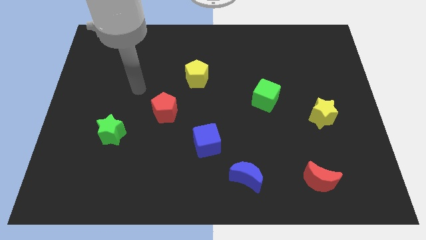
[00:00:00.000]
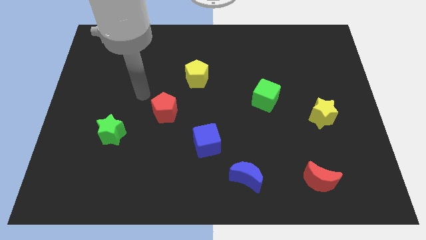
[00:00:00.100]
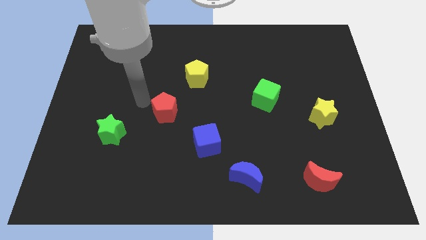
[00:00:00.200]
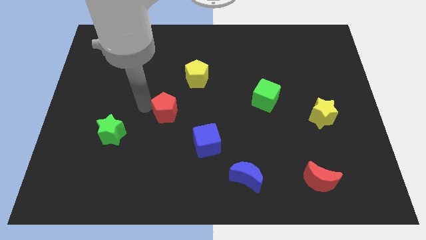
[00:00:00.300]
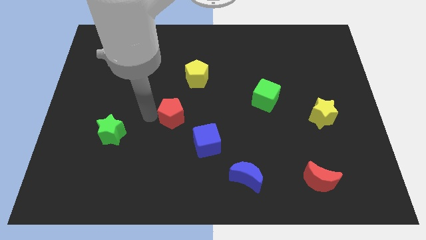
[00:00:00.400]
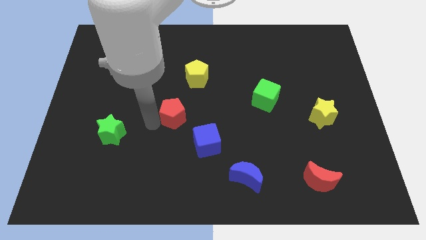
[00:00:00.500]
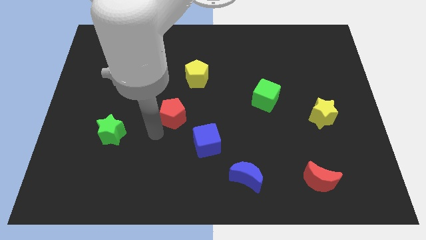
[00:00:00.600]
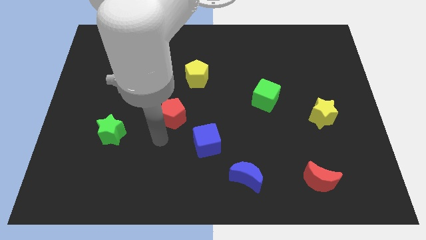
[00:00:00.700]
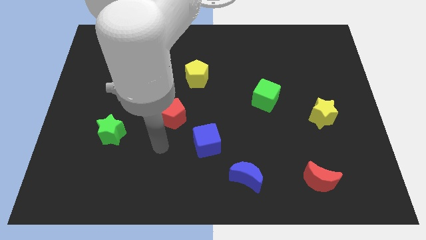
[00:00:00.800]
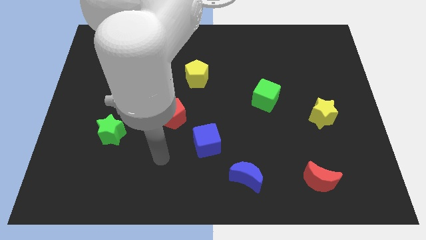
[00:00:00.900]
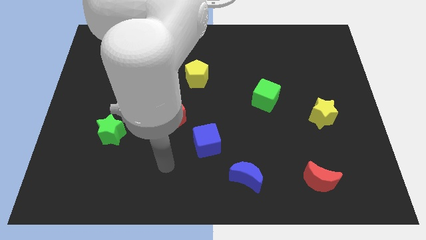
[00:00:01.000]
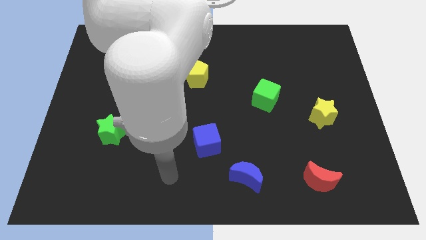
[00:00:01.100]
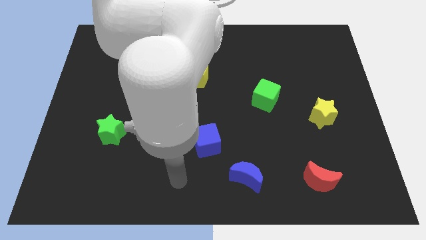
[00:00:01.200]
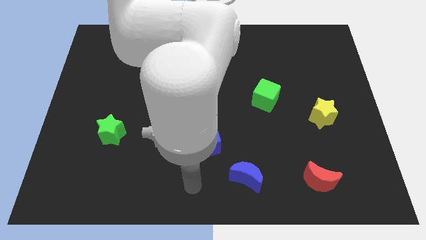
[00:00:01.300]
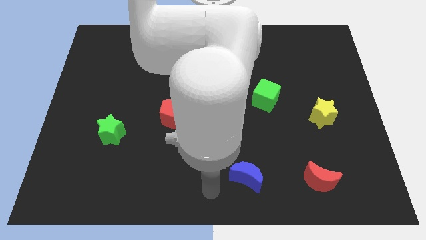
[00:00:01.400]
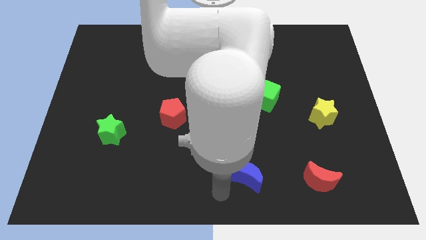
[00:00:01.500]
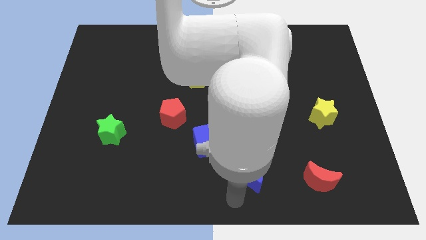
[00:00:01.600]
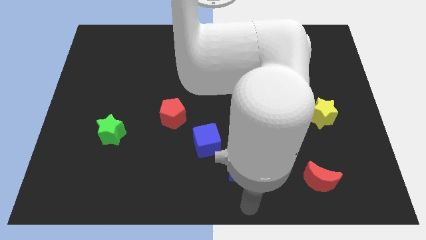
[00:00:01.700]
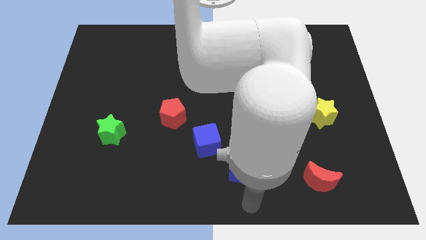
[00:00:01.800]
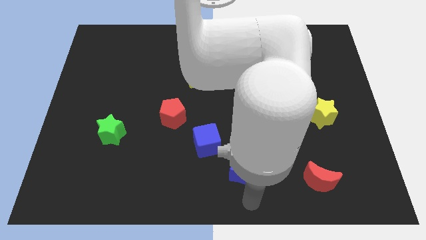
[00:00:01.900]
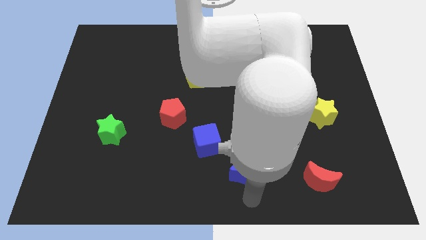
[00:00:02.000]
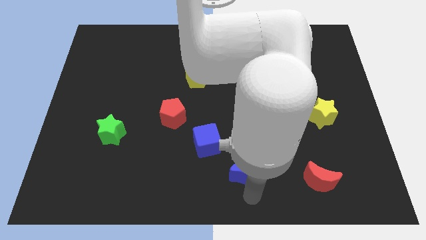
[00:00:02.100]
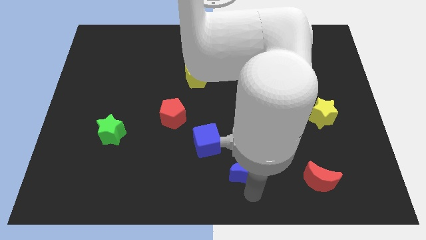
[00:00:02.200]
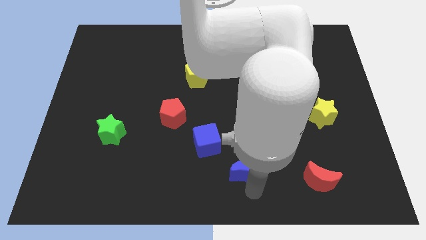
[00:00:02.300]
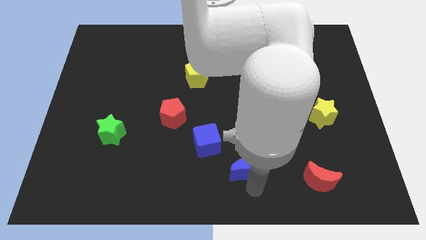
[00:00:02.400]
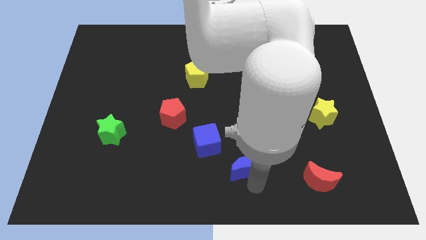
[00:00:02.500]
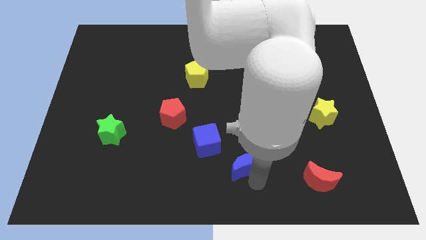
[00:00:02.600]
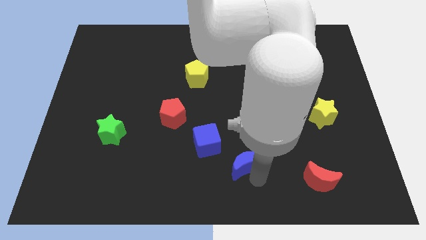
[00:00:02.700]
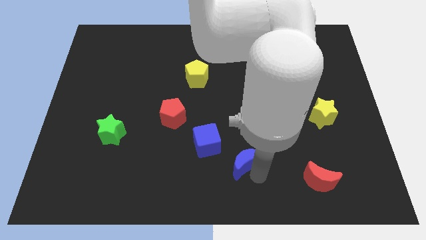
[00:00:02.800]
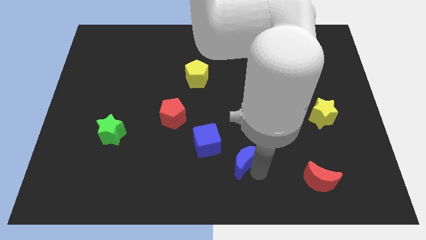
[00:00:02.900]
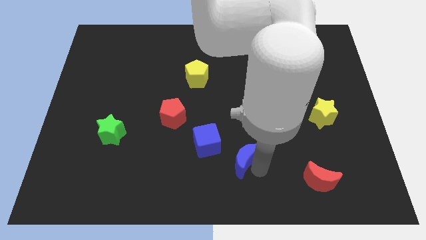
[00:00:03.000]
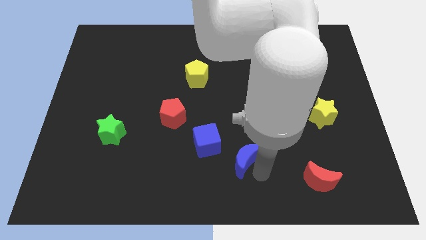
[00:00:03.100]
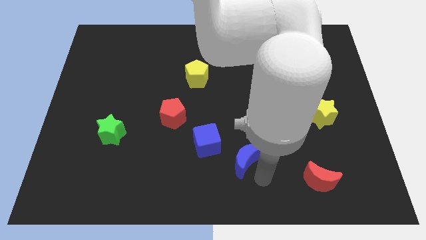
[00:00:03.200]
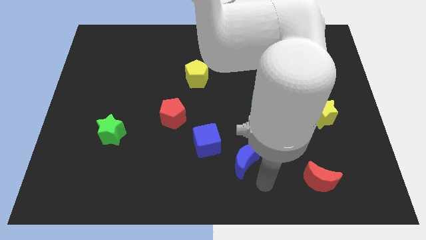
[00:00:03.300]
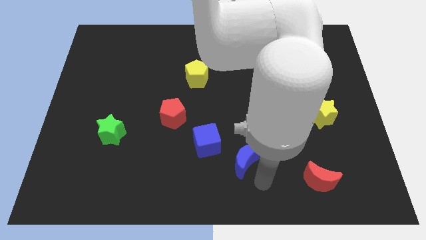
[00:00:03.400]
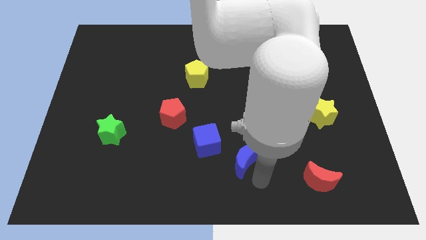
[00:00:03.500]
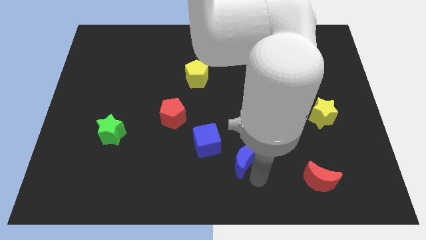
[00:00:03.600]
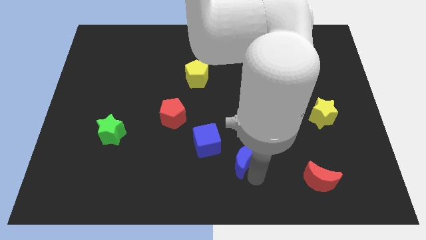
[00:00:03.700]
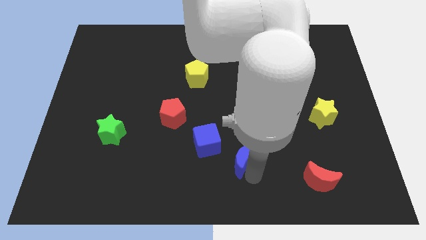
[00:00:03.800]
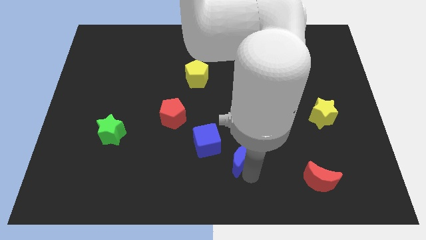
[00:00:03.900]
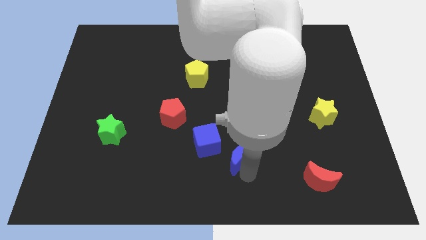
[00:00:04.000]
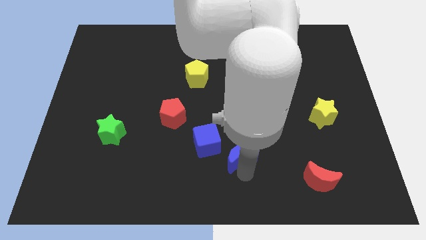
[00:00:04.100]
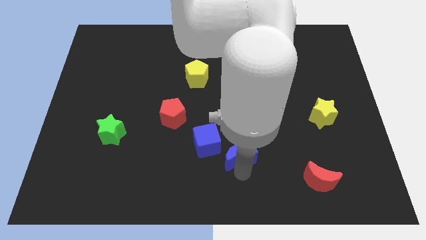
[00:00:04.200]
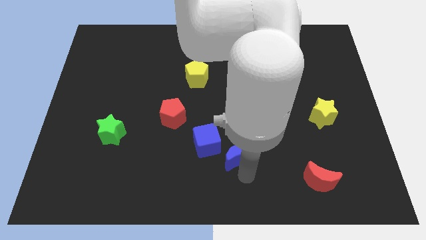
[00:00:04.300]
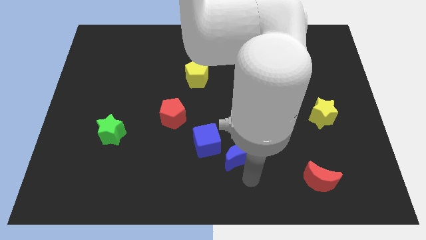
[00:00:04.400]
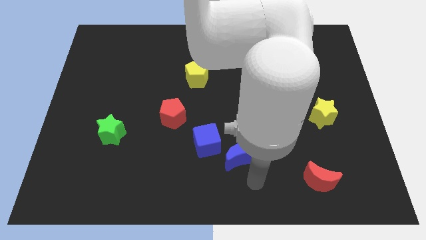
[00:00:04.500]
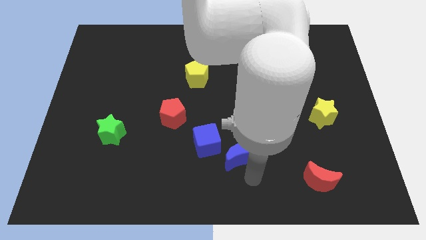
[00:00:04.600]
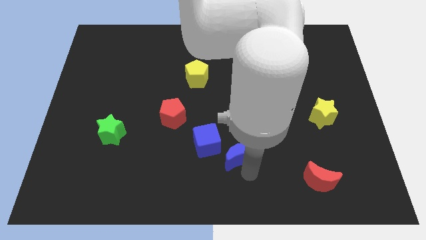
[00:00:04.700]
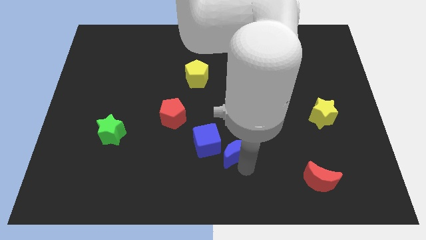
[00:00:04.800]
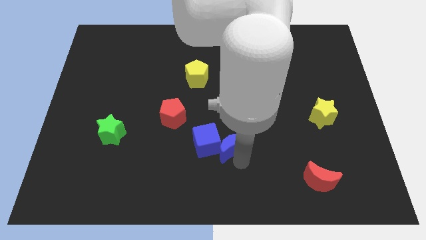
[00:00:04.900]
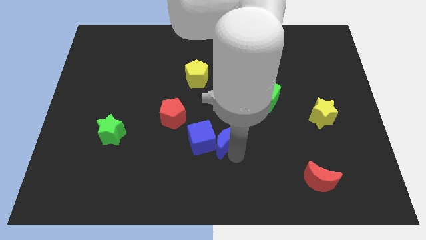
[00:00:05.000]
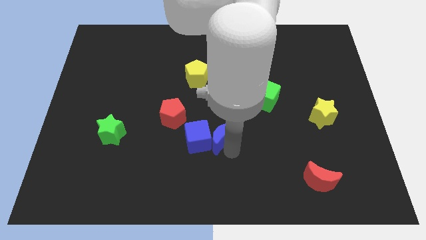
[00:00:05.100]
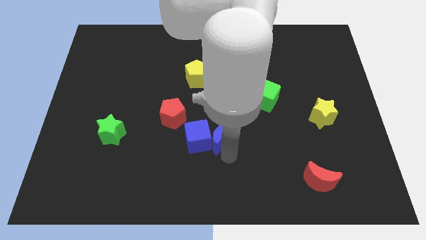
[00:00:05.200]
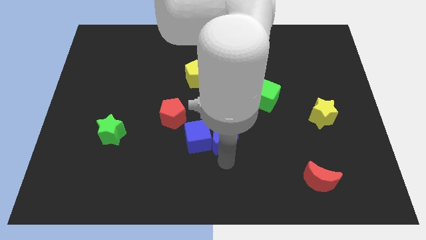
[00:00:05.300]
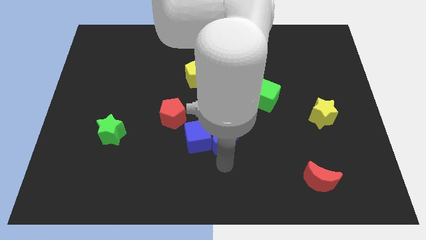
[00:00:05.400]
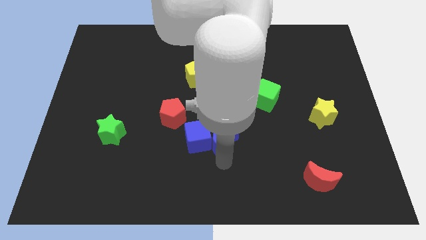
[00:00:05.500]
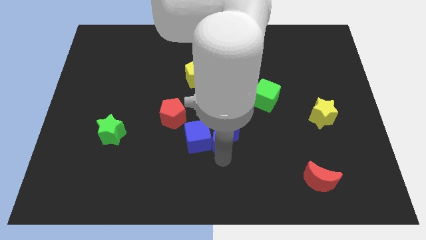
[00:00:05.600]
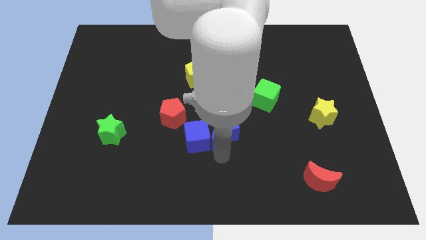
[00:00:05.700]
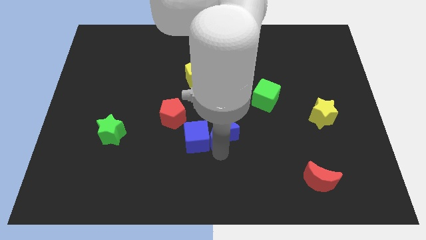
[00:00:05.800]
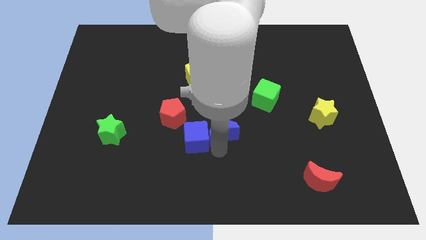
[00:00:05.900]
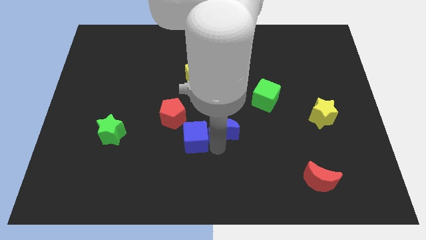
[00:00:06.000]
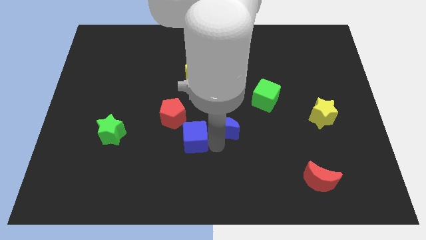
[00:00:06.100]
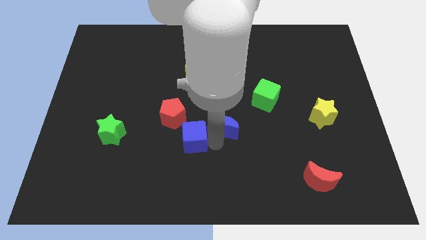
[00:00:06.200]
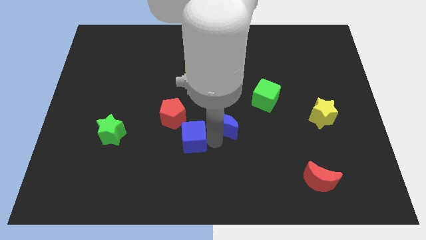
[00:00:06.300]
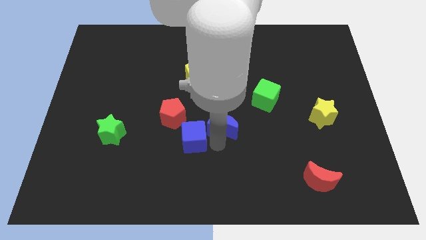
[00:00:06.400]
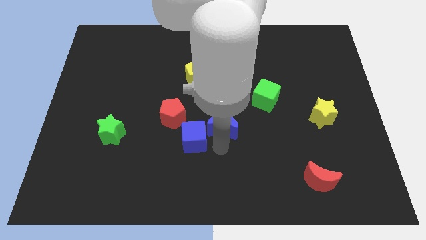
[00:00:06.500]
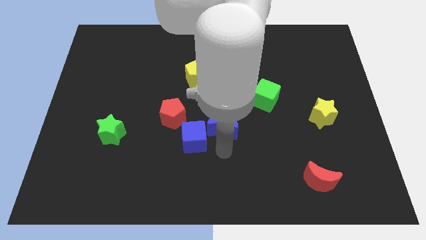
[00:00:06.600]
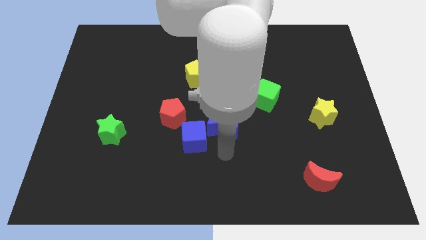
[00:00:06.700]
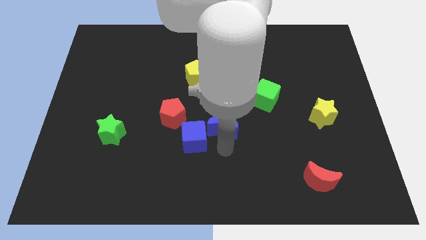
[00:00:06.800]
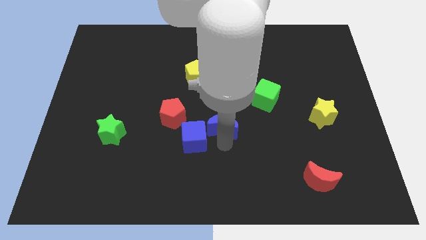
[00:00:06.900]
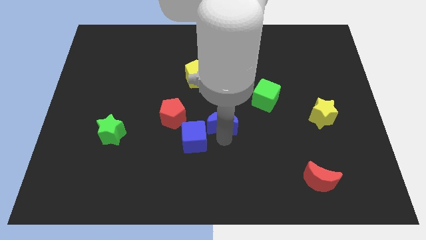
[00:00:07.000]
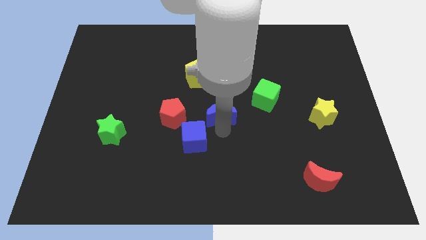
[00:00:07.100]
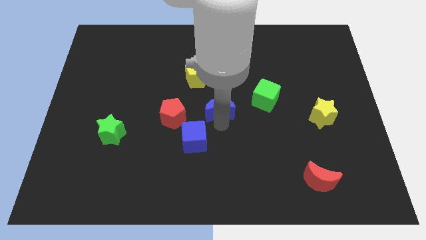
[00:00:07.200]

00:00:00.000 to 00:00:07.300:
push the blue moon to the left side of the green cube
